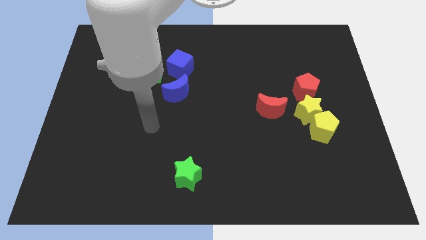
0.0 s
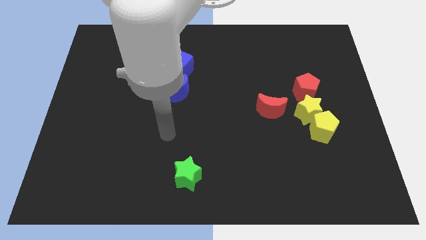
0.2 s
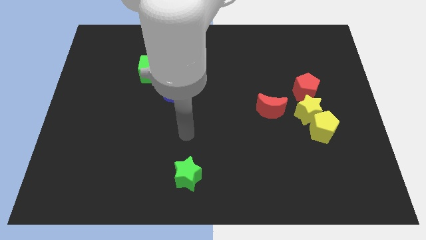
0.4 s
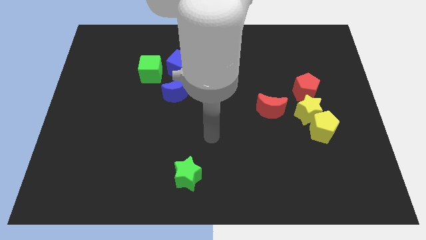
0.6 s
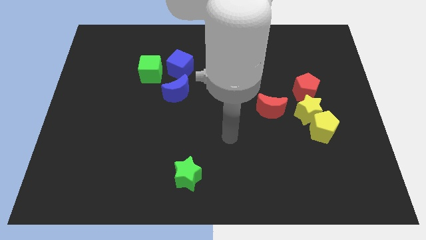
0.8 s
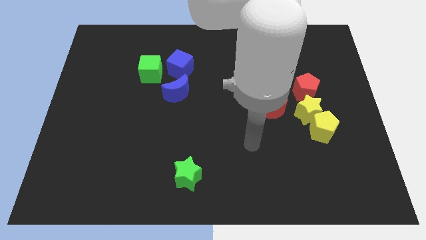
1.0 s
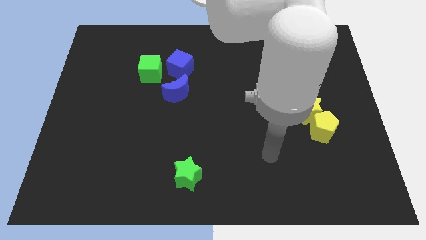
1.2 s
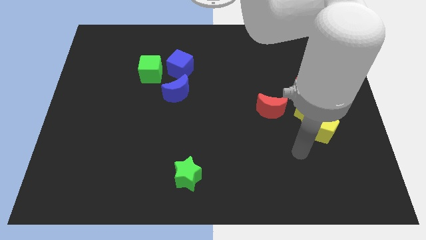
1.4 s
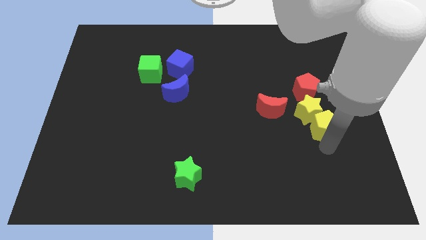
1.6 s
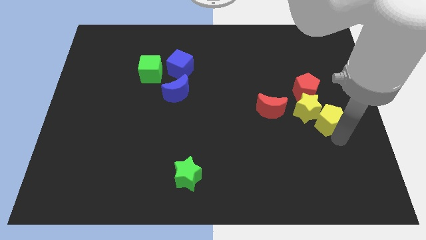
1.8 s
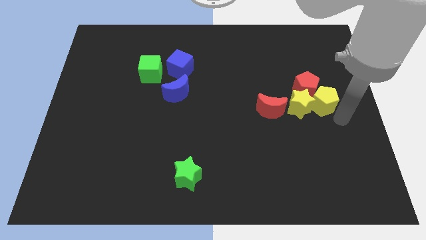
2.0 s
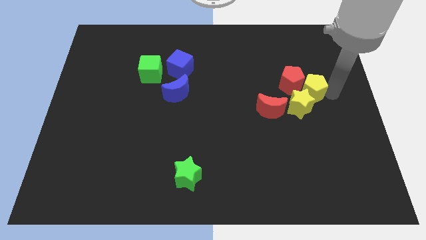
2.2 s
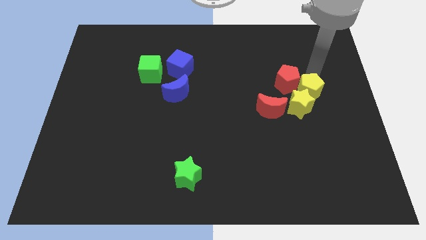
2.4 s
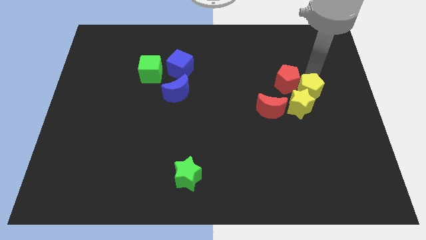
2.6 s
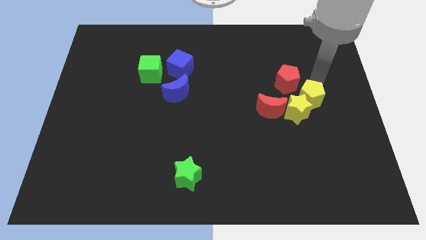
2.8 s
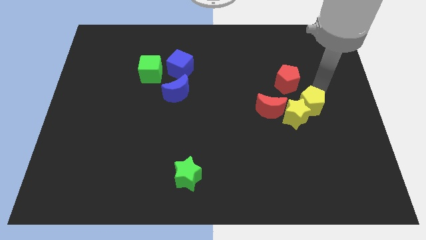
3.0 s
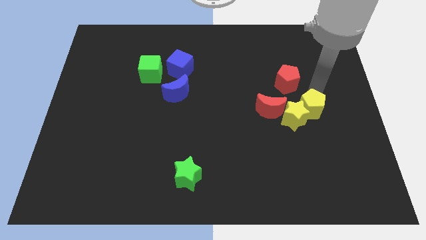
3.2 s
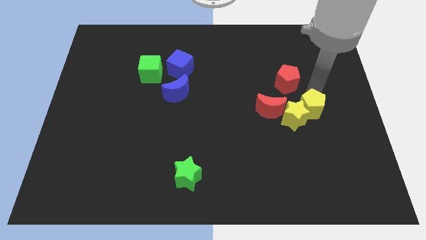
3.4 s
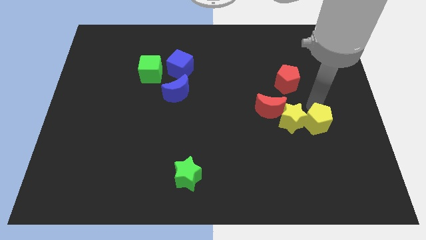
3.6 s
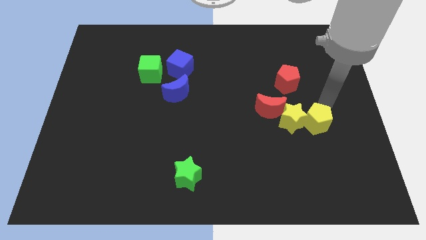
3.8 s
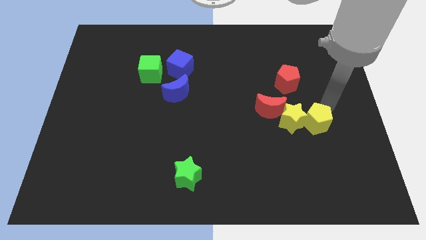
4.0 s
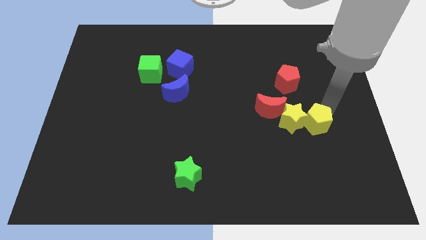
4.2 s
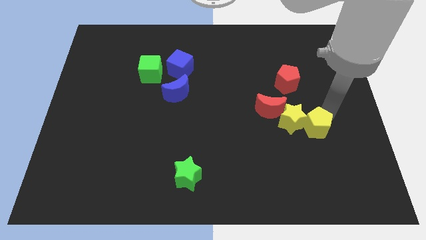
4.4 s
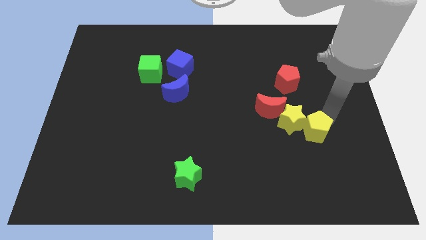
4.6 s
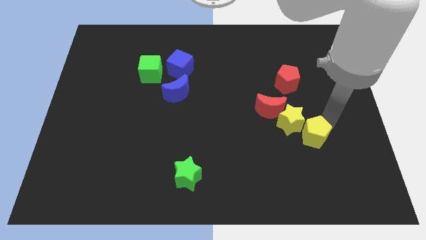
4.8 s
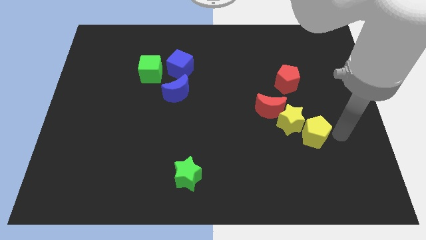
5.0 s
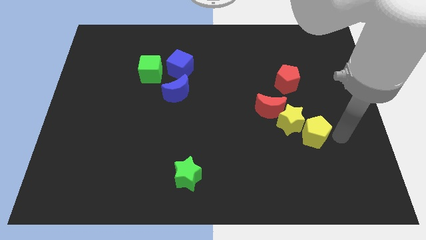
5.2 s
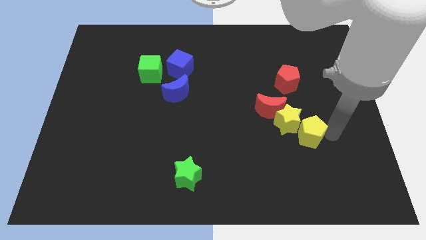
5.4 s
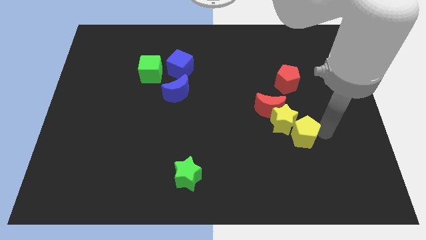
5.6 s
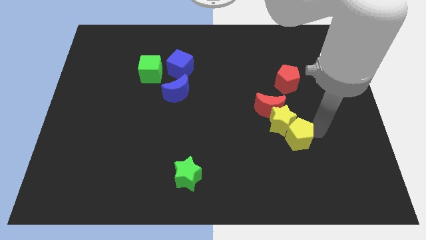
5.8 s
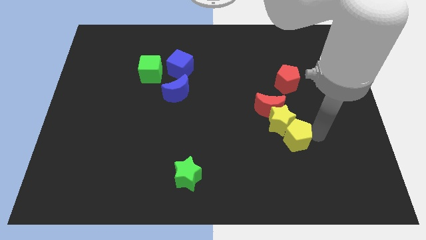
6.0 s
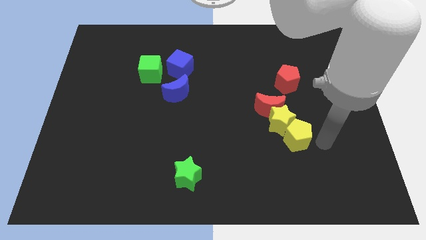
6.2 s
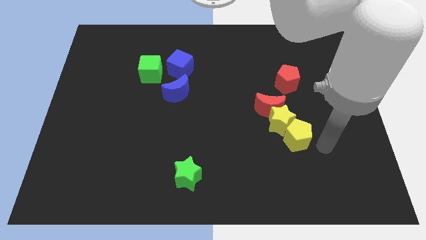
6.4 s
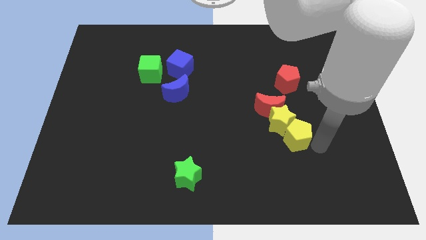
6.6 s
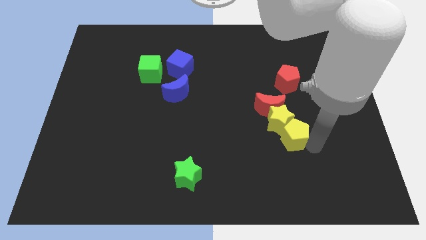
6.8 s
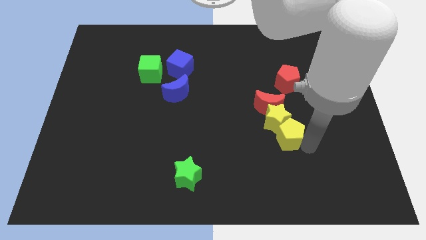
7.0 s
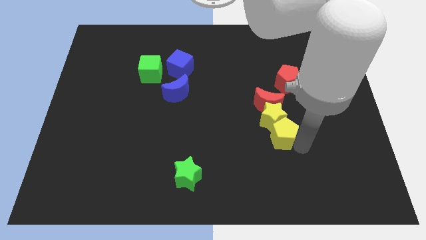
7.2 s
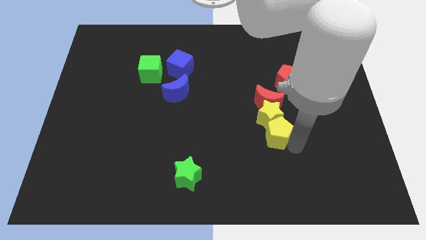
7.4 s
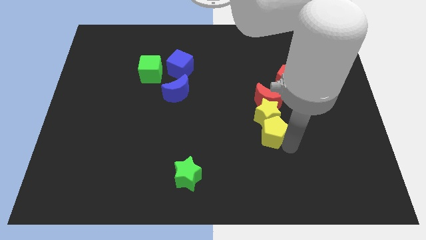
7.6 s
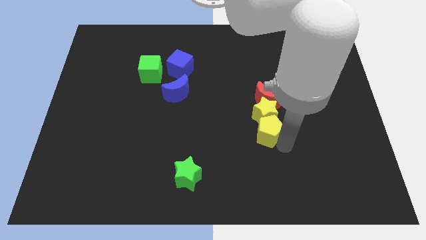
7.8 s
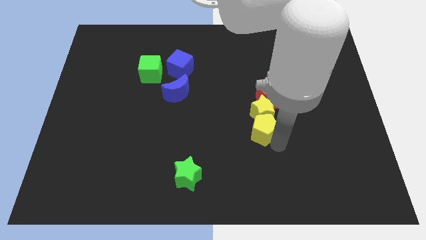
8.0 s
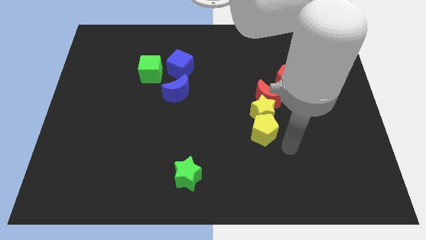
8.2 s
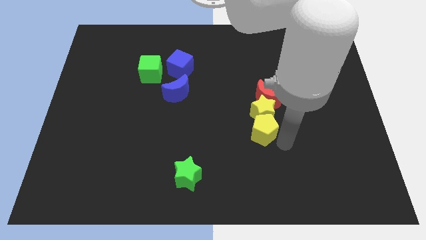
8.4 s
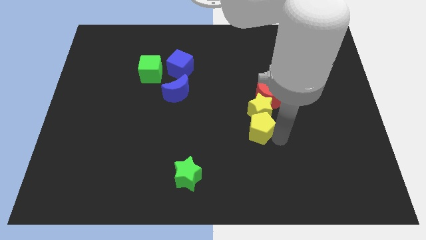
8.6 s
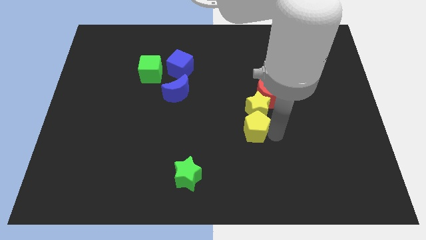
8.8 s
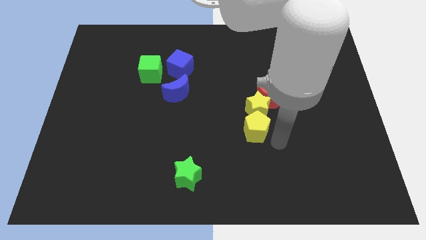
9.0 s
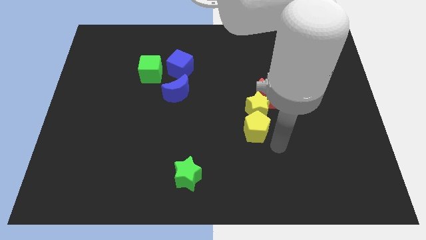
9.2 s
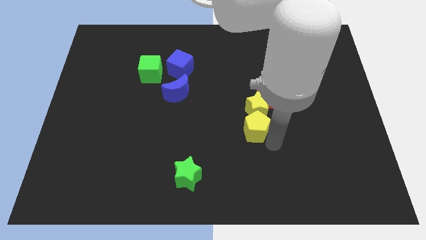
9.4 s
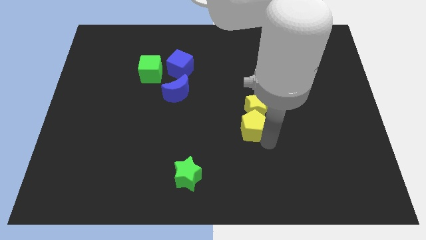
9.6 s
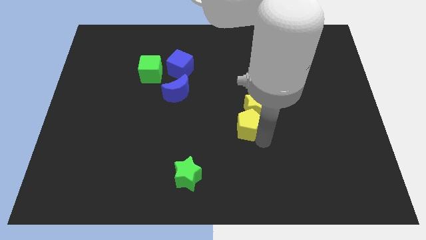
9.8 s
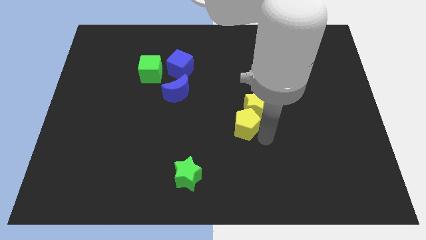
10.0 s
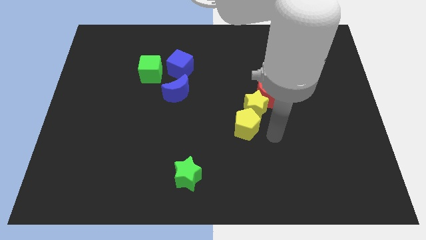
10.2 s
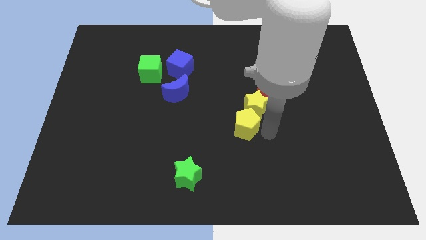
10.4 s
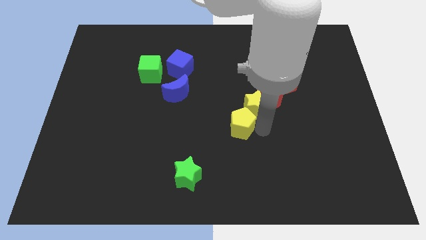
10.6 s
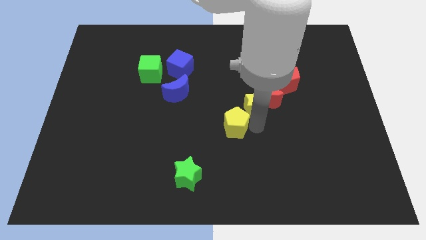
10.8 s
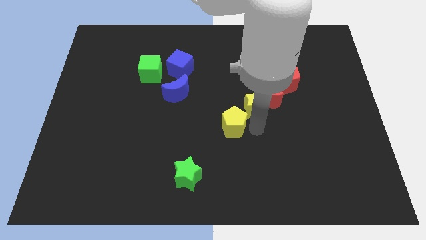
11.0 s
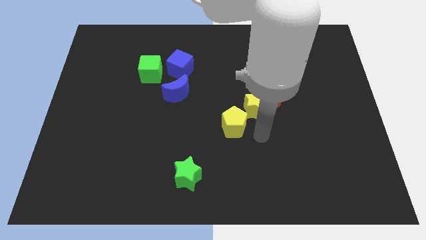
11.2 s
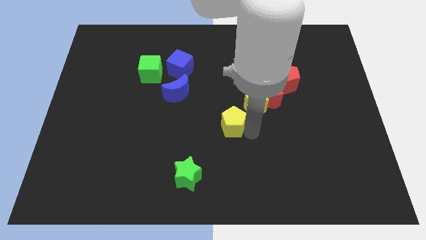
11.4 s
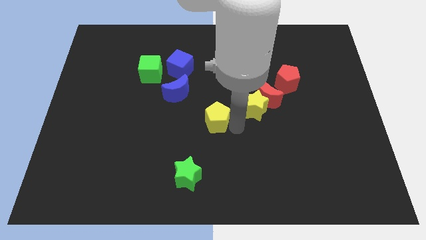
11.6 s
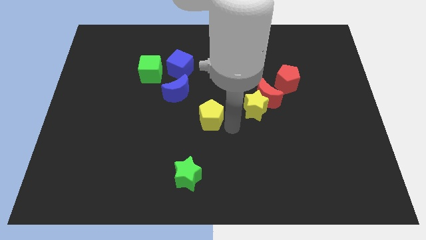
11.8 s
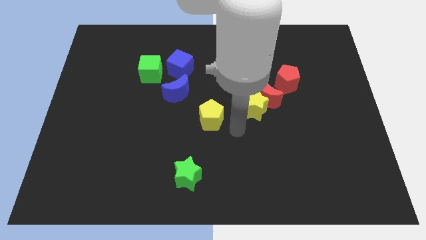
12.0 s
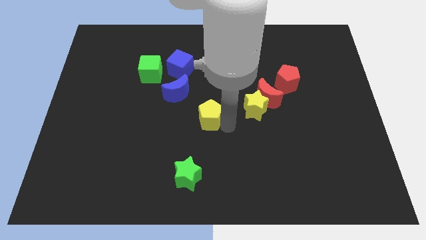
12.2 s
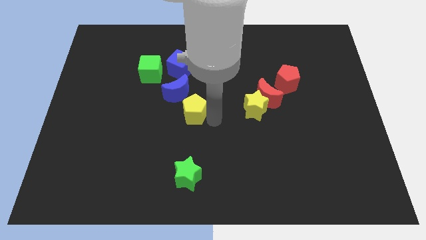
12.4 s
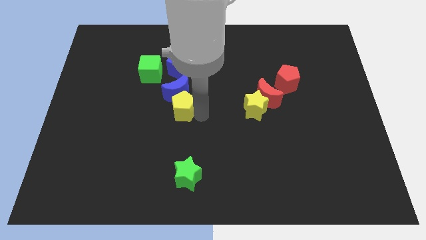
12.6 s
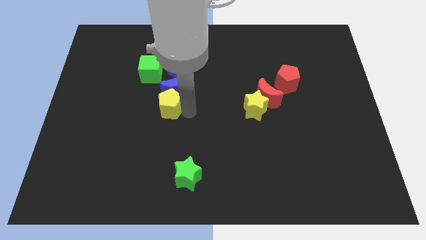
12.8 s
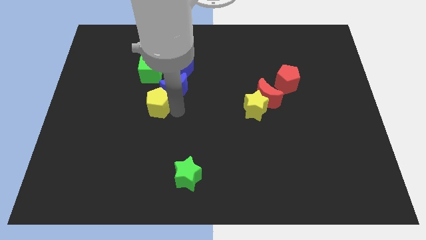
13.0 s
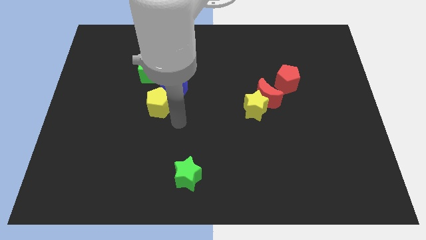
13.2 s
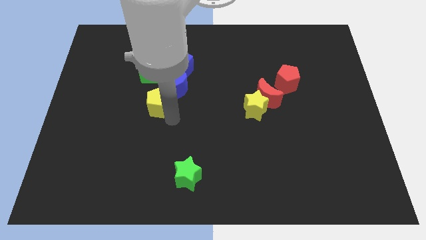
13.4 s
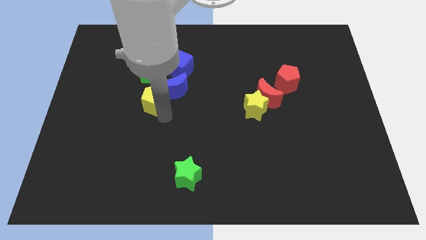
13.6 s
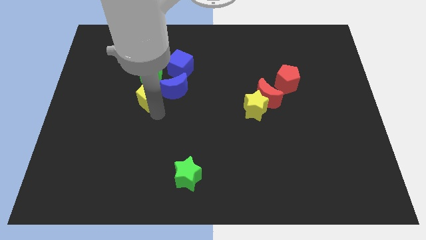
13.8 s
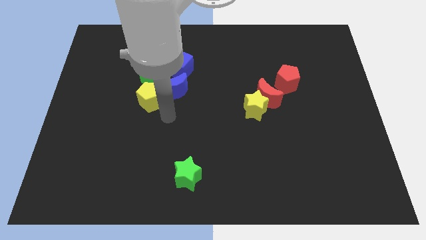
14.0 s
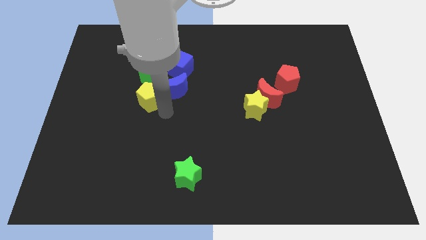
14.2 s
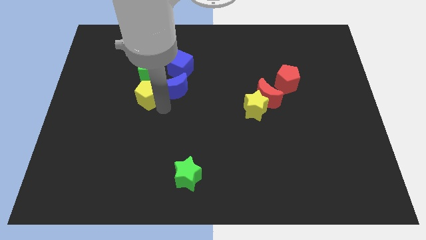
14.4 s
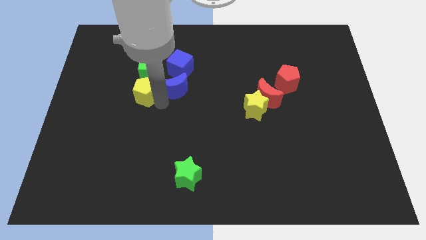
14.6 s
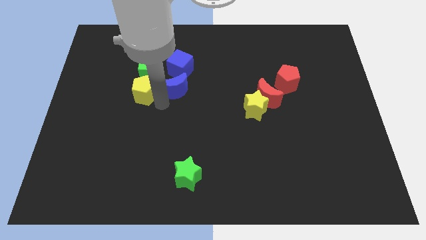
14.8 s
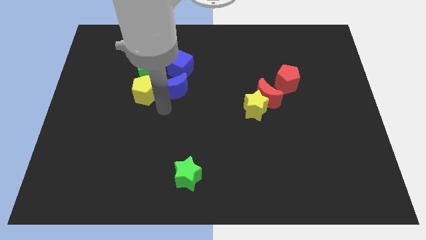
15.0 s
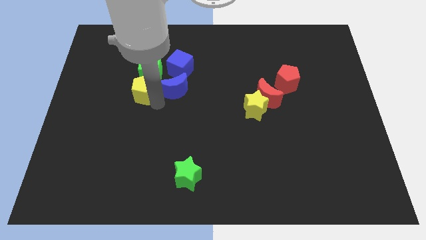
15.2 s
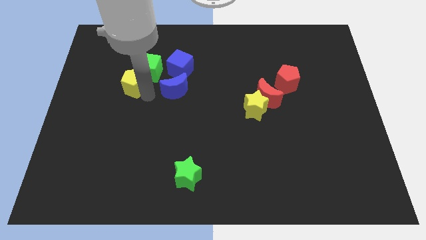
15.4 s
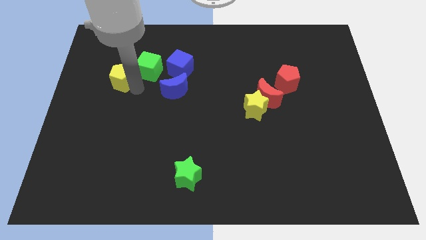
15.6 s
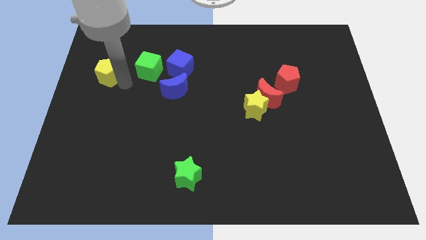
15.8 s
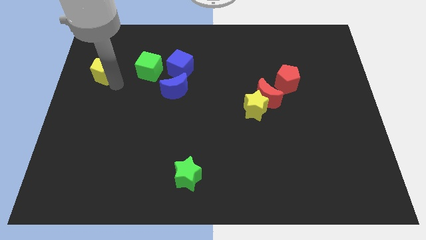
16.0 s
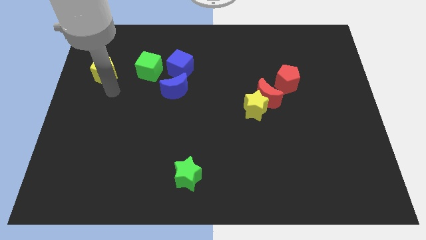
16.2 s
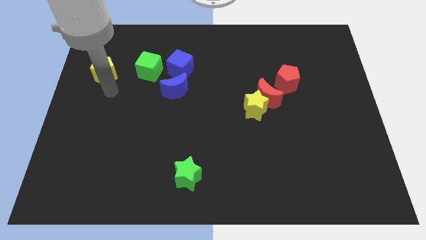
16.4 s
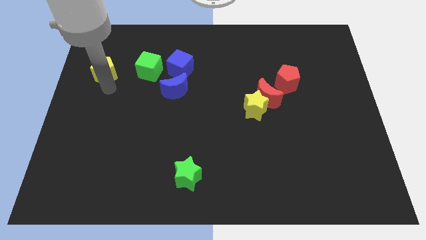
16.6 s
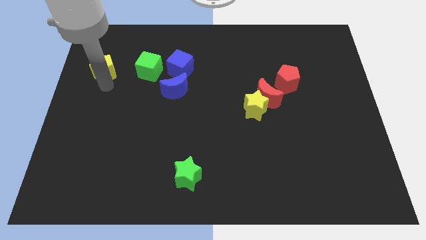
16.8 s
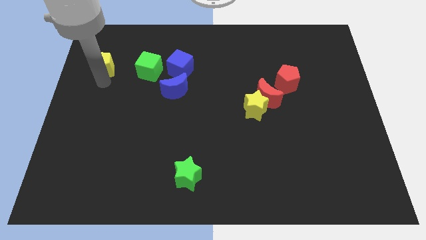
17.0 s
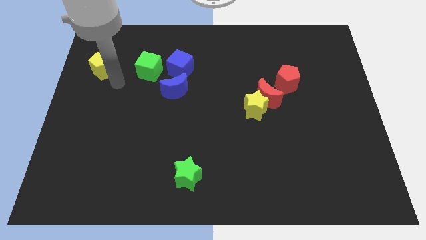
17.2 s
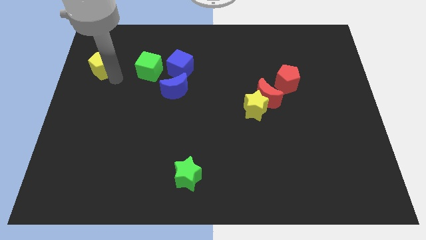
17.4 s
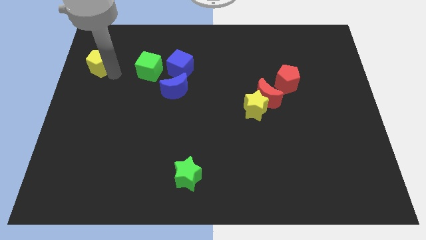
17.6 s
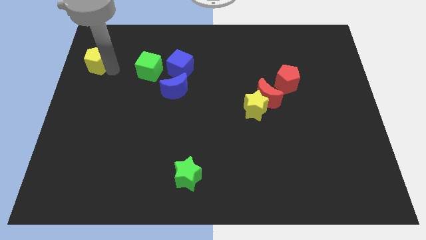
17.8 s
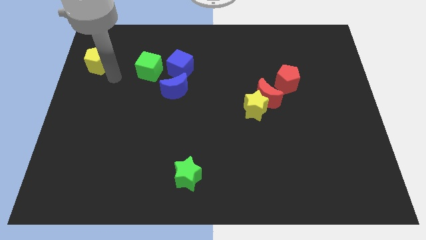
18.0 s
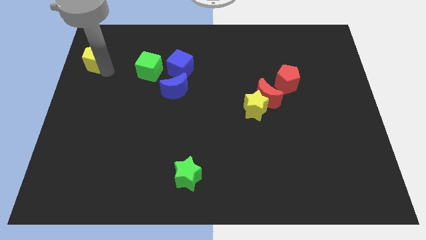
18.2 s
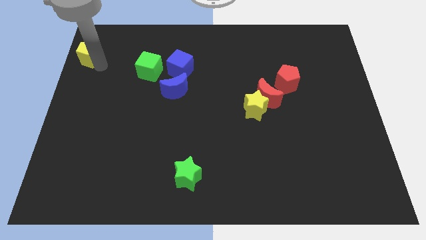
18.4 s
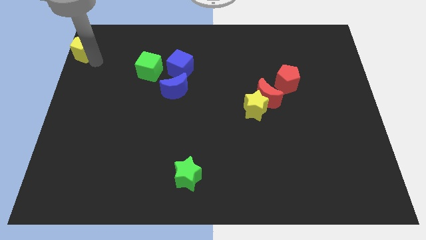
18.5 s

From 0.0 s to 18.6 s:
slide the yellow pentagon to the upper left corner
